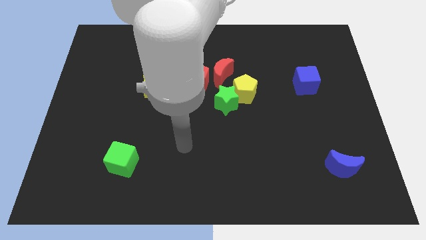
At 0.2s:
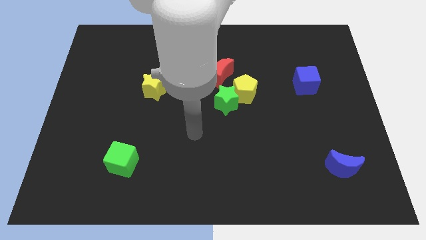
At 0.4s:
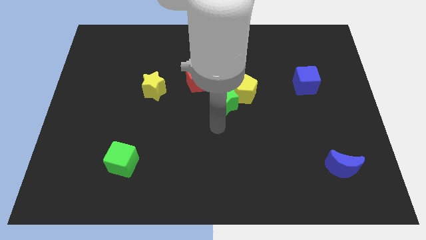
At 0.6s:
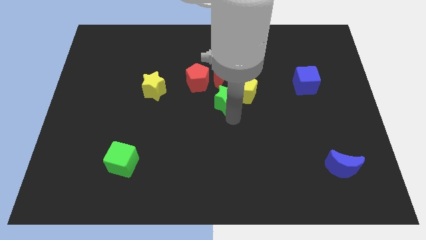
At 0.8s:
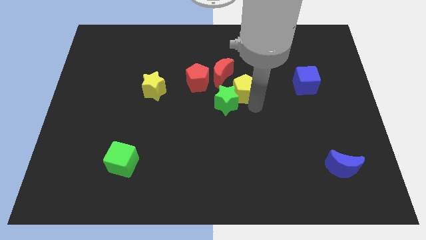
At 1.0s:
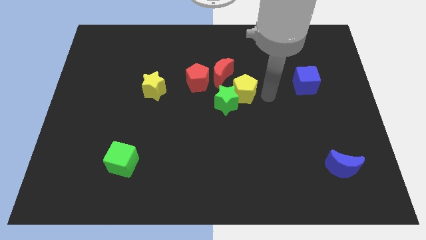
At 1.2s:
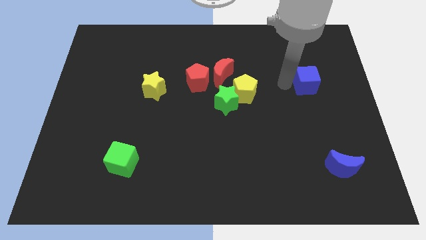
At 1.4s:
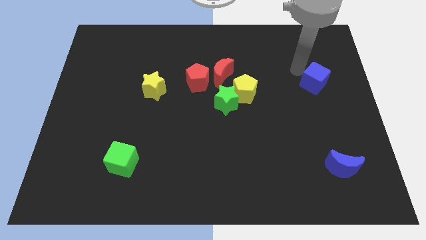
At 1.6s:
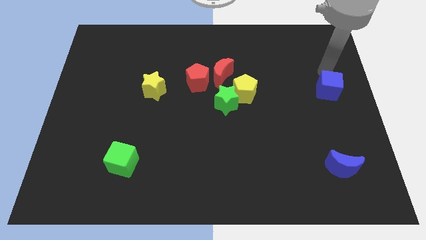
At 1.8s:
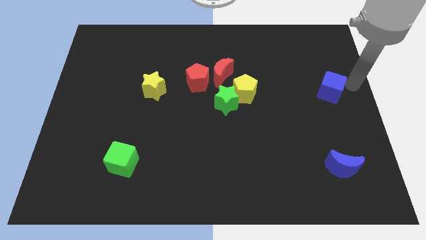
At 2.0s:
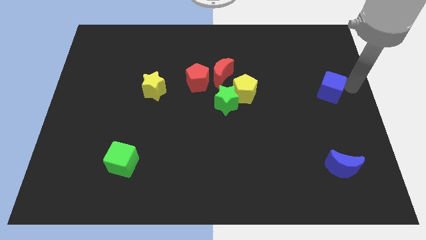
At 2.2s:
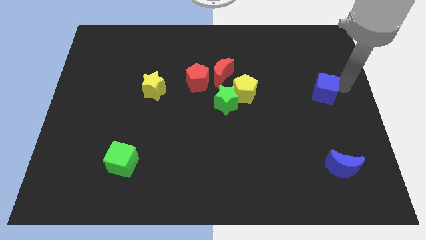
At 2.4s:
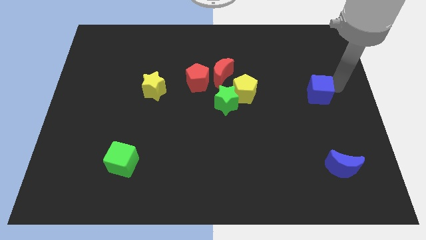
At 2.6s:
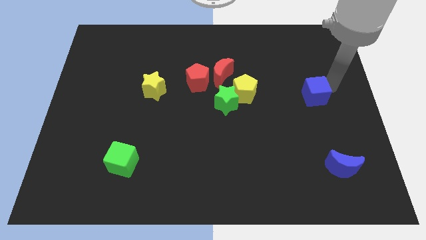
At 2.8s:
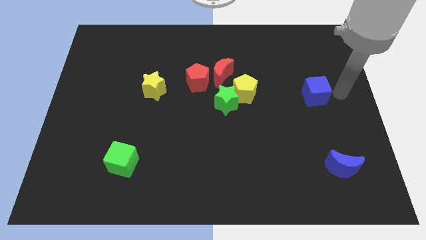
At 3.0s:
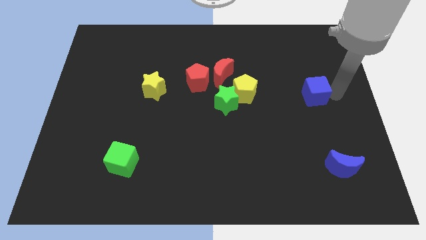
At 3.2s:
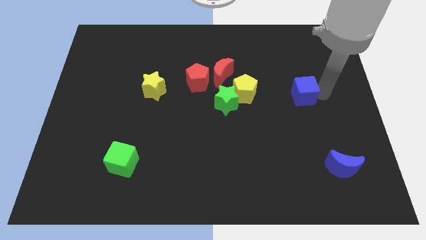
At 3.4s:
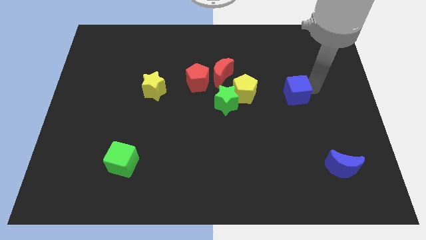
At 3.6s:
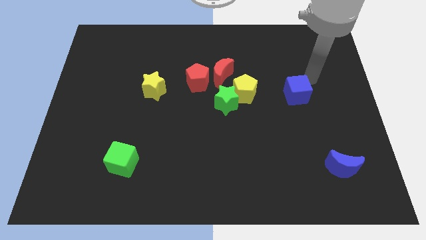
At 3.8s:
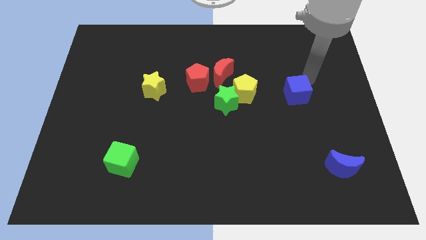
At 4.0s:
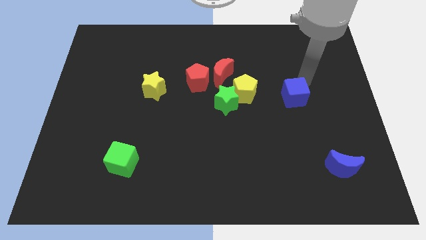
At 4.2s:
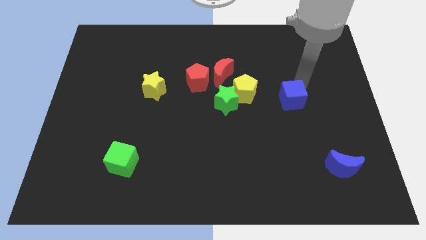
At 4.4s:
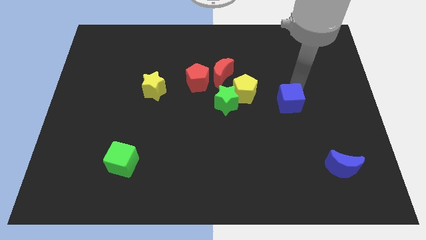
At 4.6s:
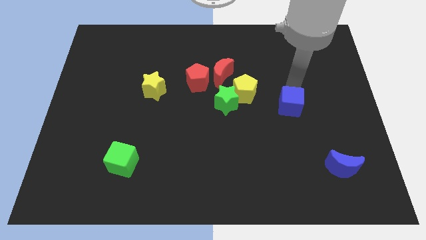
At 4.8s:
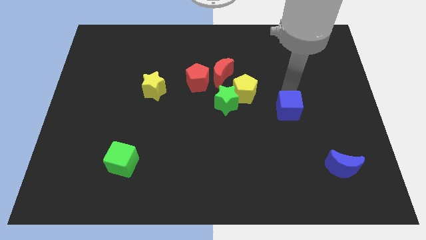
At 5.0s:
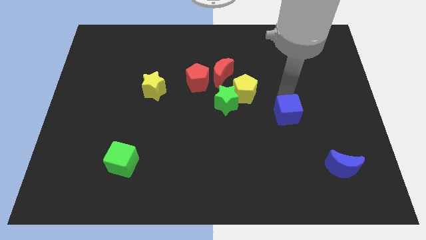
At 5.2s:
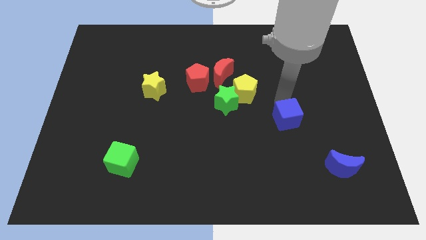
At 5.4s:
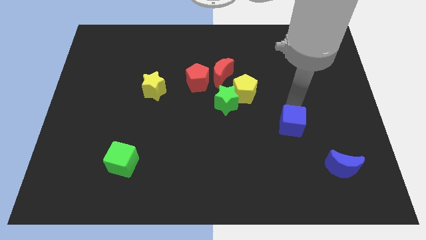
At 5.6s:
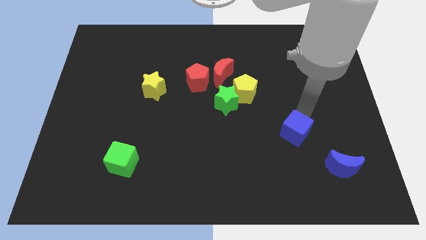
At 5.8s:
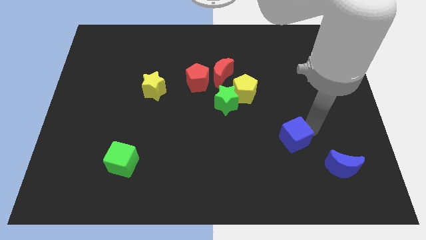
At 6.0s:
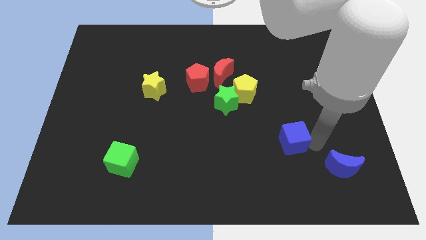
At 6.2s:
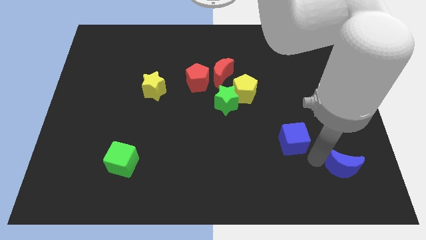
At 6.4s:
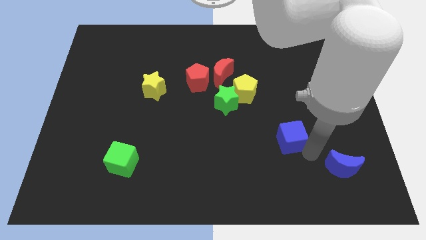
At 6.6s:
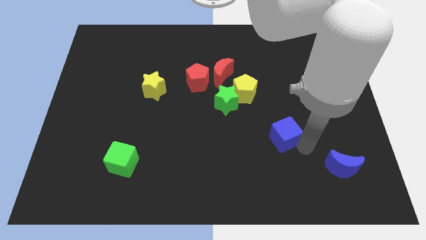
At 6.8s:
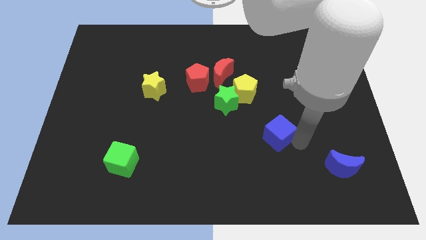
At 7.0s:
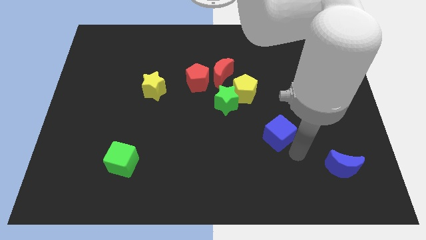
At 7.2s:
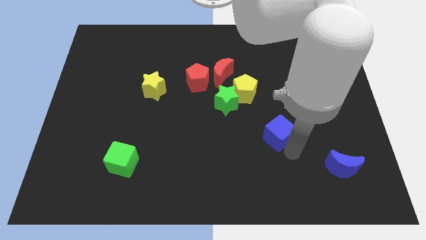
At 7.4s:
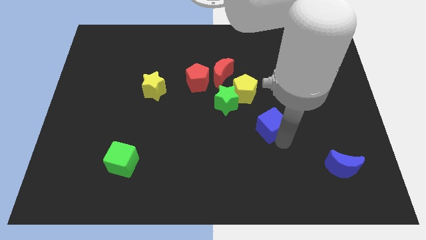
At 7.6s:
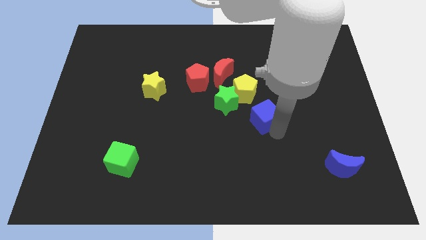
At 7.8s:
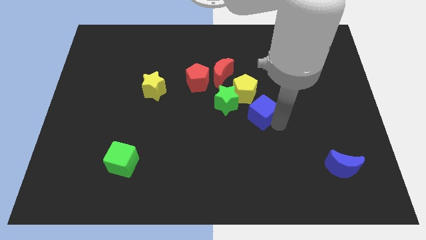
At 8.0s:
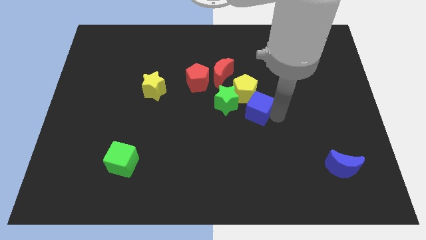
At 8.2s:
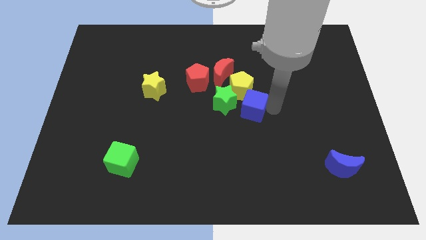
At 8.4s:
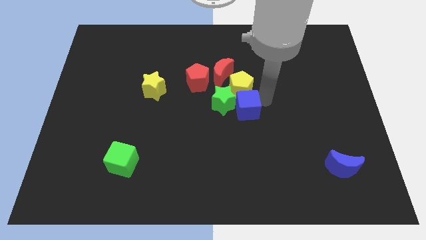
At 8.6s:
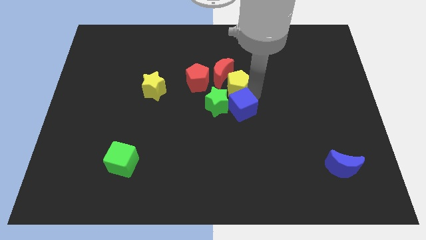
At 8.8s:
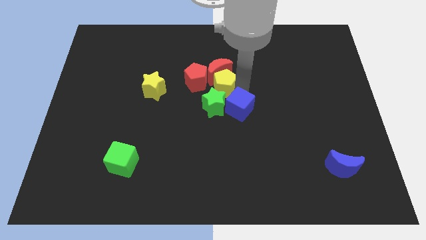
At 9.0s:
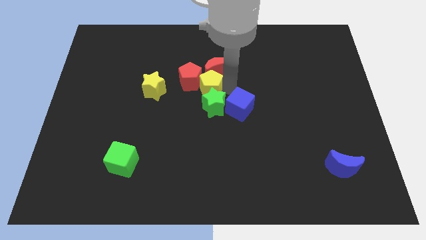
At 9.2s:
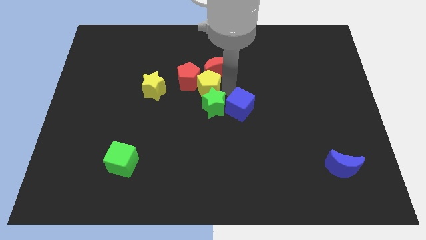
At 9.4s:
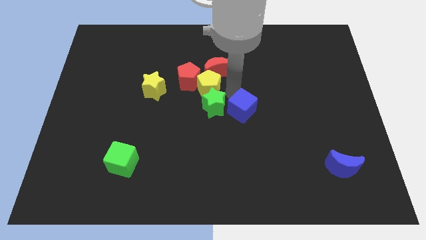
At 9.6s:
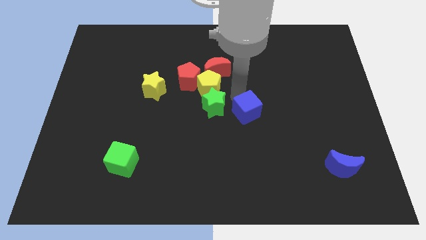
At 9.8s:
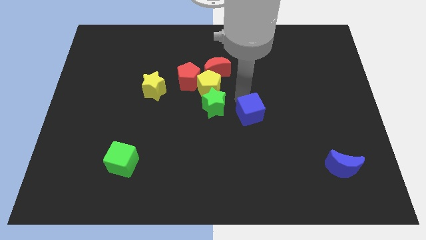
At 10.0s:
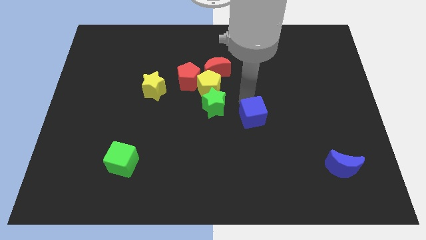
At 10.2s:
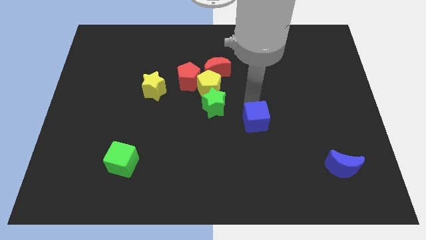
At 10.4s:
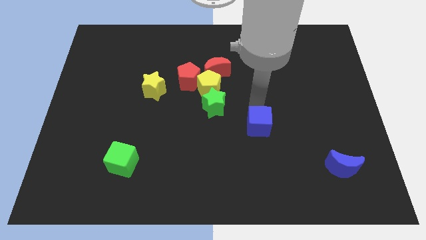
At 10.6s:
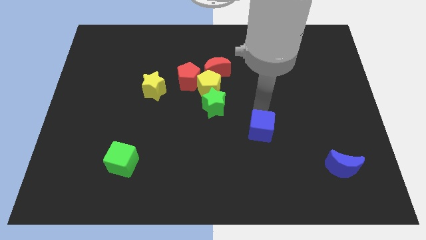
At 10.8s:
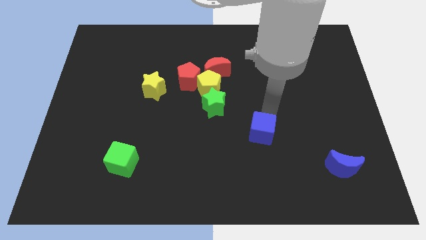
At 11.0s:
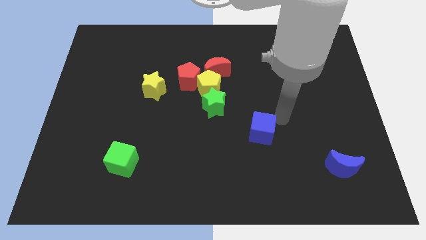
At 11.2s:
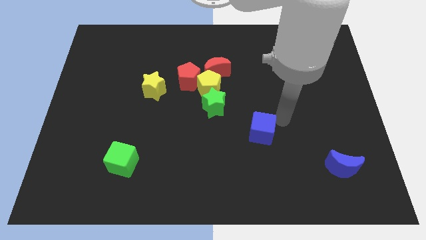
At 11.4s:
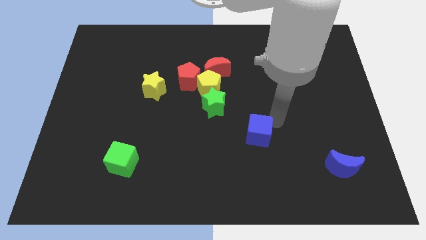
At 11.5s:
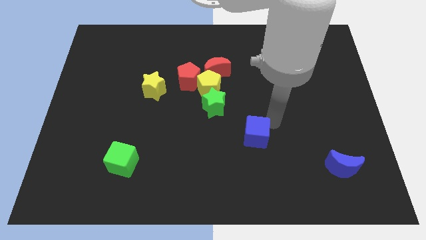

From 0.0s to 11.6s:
move the blue cube down and then to the left

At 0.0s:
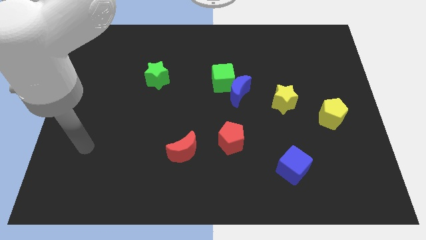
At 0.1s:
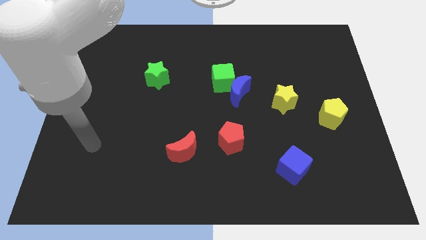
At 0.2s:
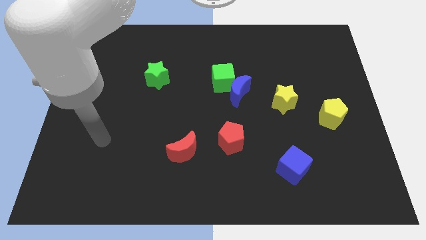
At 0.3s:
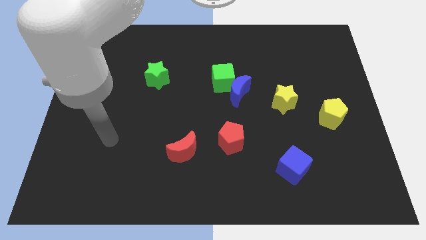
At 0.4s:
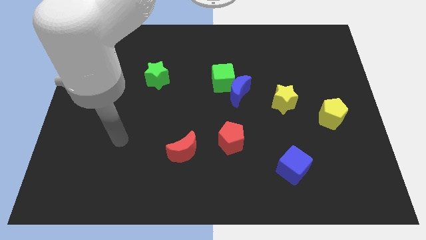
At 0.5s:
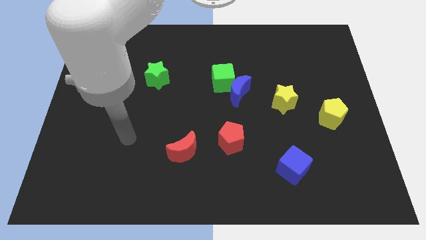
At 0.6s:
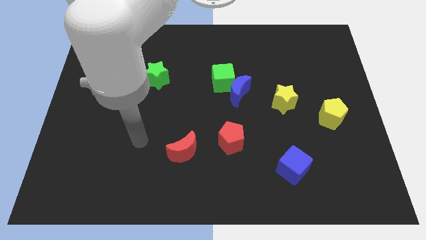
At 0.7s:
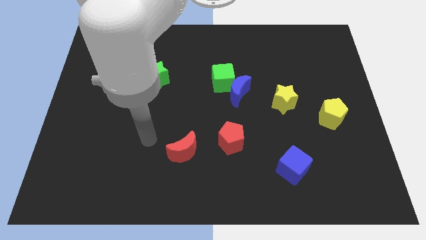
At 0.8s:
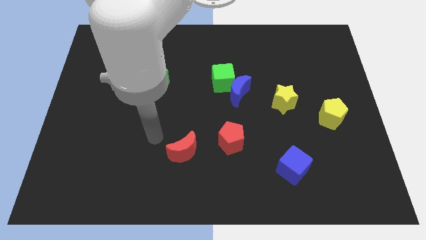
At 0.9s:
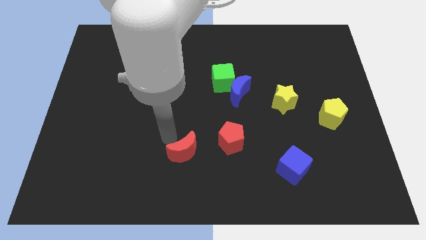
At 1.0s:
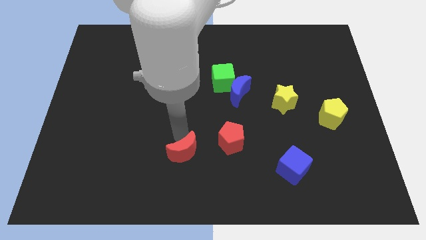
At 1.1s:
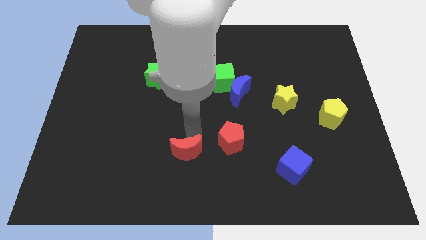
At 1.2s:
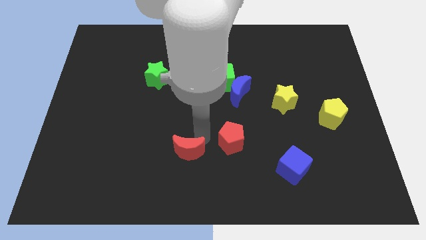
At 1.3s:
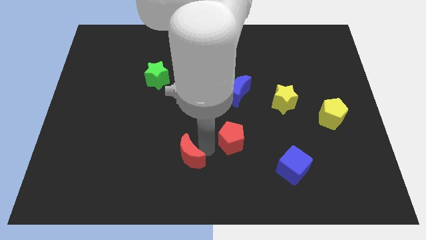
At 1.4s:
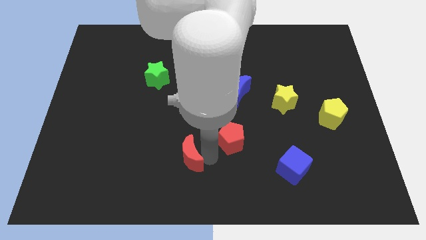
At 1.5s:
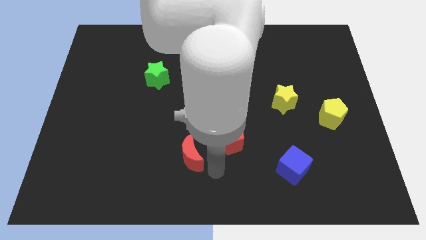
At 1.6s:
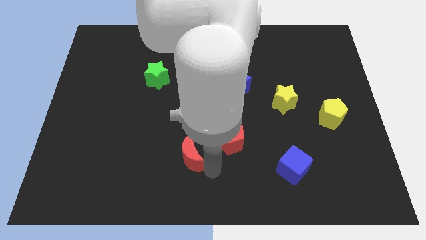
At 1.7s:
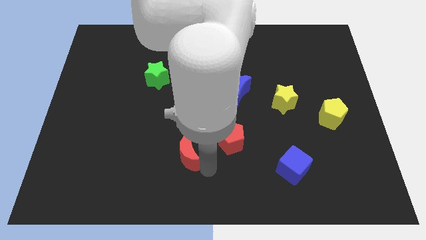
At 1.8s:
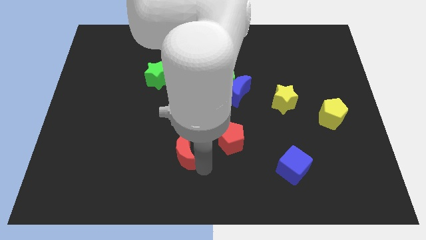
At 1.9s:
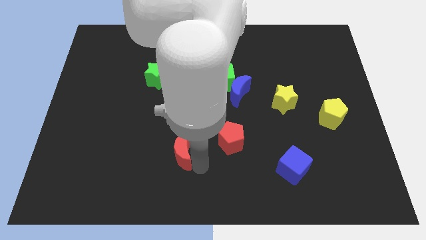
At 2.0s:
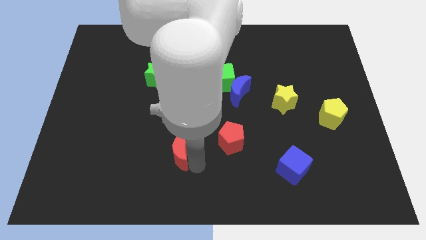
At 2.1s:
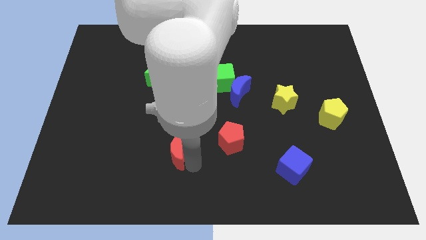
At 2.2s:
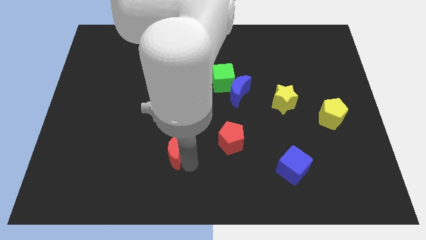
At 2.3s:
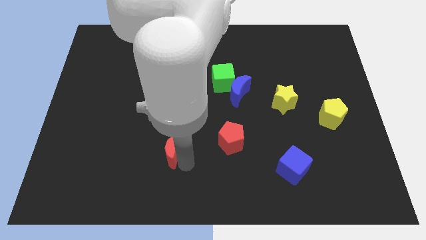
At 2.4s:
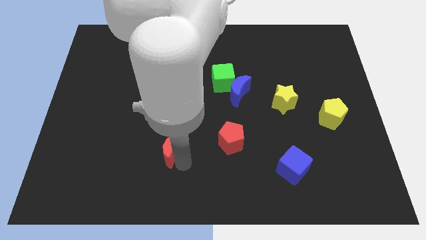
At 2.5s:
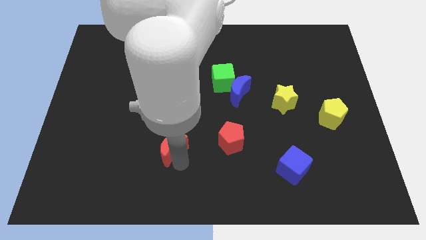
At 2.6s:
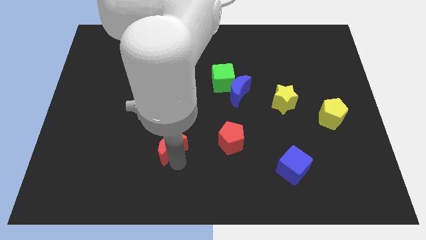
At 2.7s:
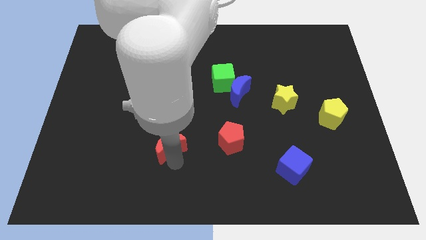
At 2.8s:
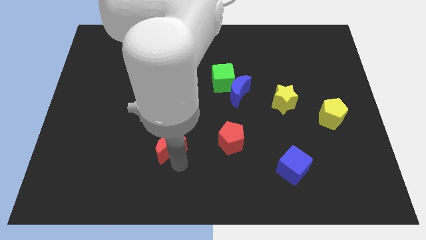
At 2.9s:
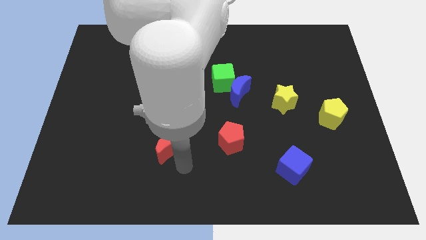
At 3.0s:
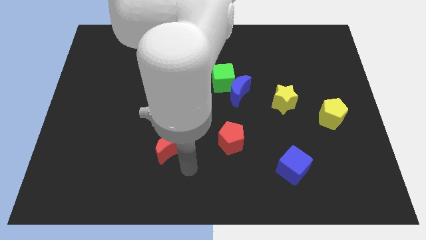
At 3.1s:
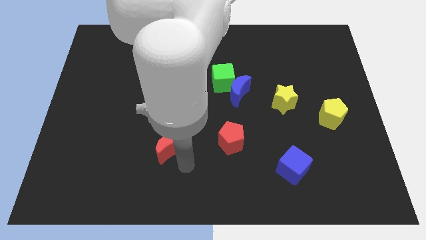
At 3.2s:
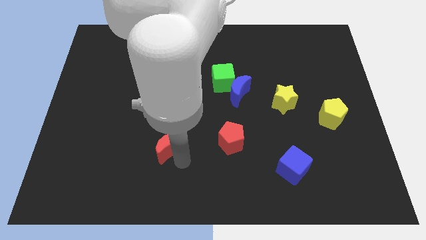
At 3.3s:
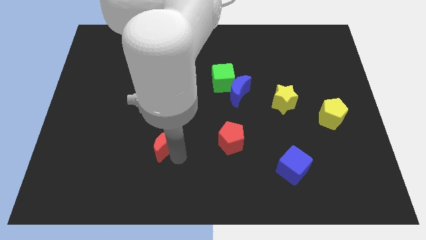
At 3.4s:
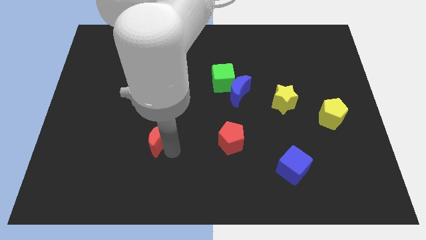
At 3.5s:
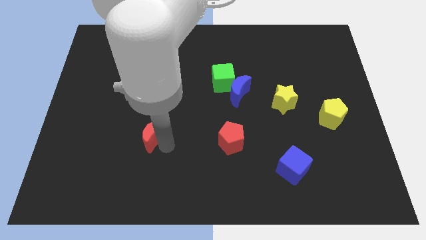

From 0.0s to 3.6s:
push the red moon up and to the left diagonally a little bit
